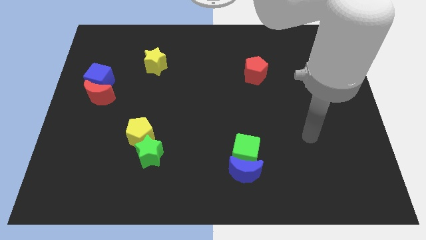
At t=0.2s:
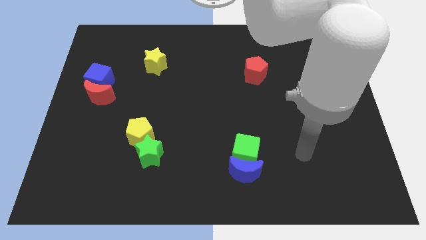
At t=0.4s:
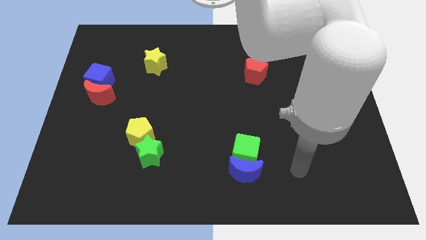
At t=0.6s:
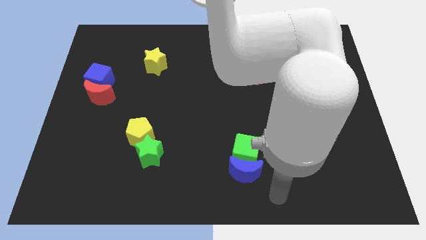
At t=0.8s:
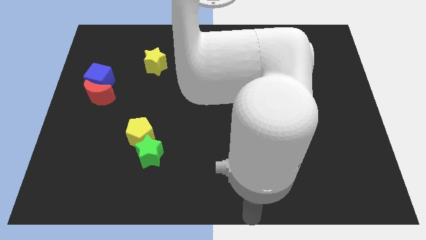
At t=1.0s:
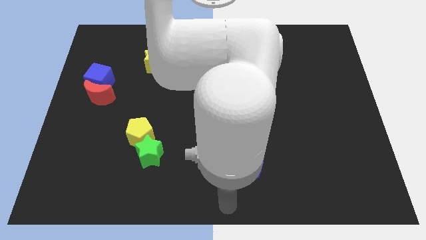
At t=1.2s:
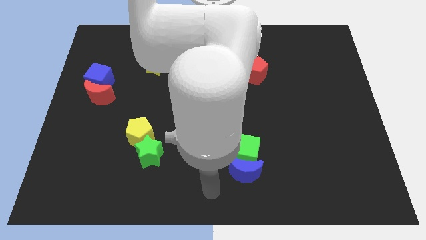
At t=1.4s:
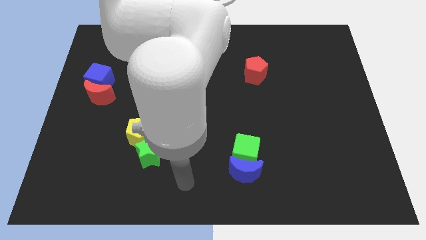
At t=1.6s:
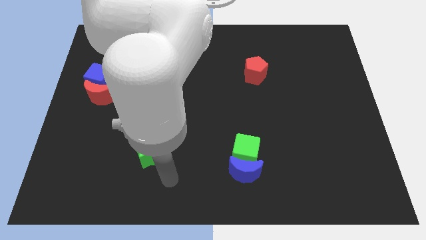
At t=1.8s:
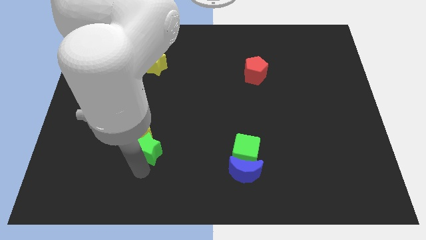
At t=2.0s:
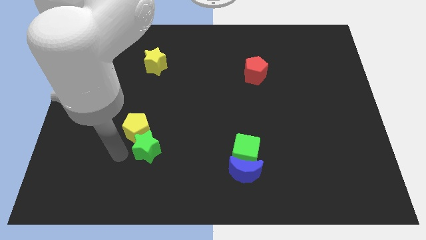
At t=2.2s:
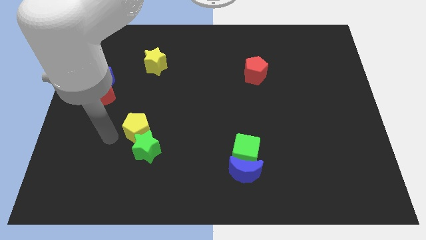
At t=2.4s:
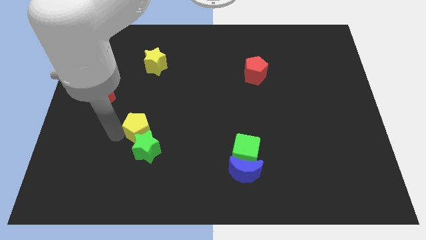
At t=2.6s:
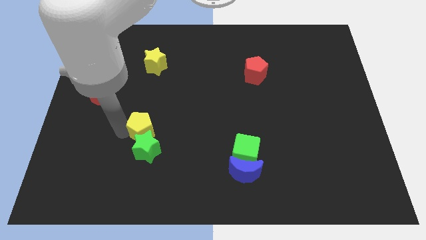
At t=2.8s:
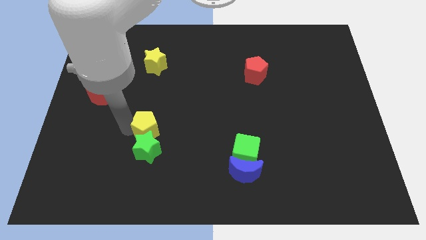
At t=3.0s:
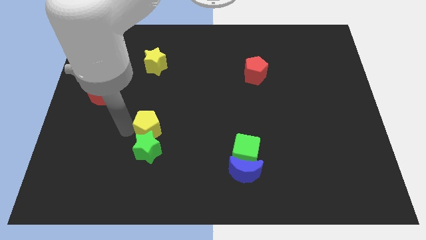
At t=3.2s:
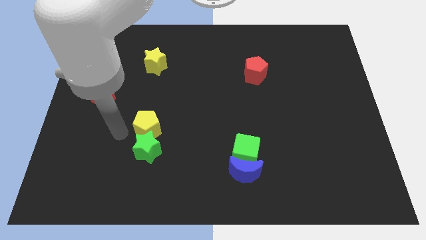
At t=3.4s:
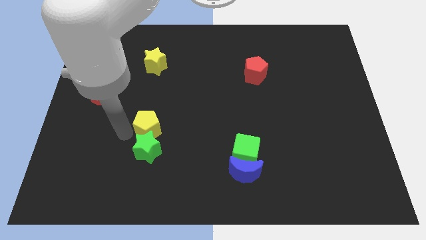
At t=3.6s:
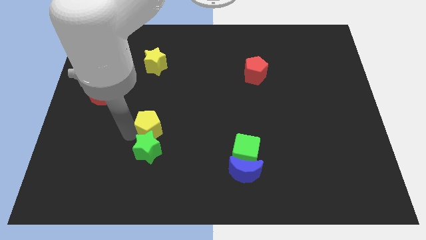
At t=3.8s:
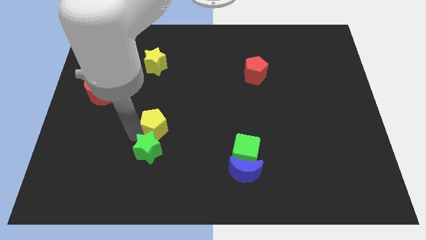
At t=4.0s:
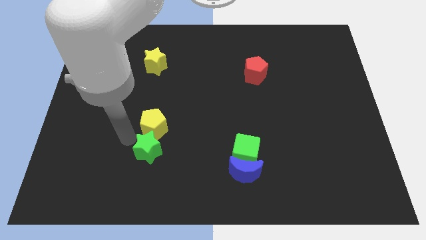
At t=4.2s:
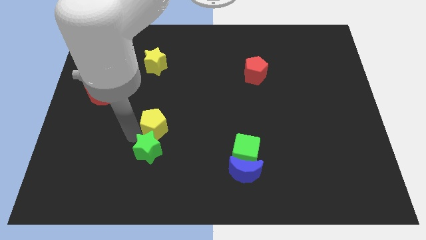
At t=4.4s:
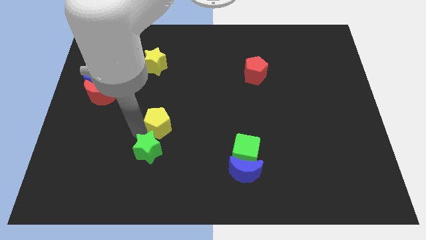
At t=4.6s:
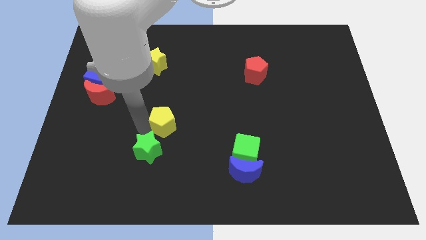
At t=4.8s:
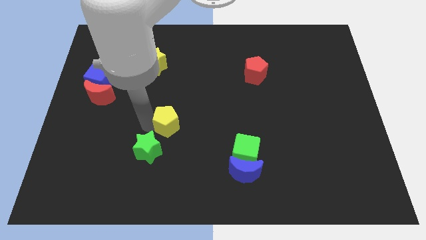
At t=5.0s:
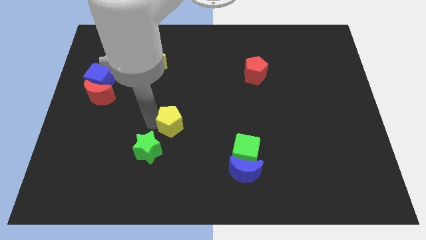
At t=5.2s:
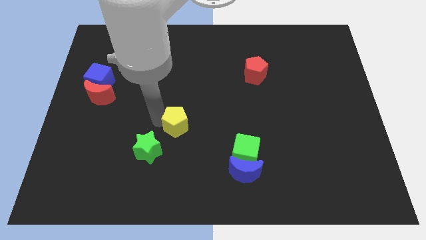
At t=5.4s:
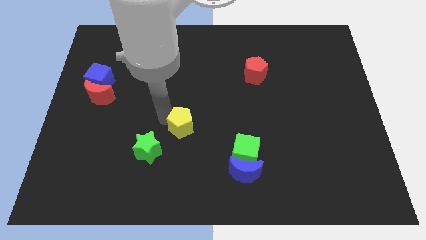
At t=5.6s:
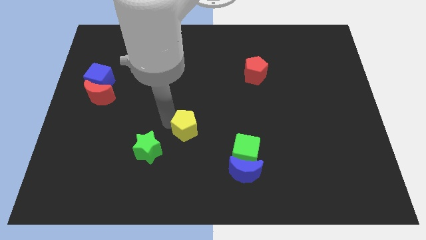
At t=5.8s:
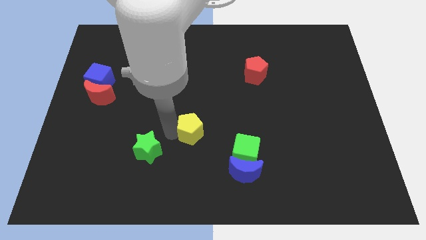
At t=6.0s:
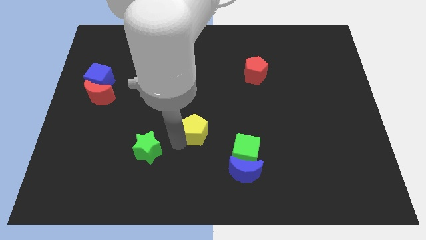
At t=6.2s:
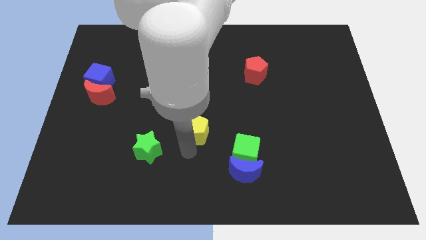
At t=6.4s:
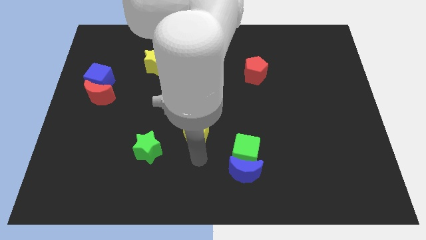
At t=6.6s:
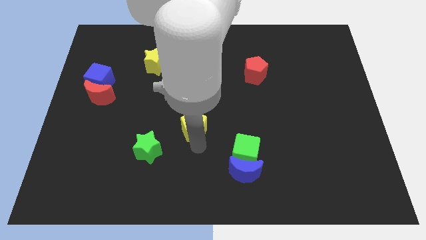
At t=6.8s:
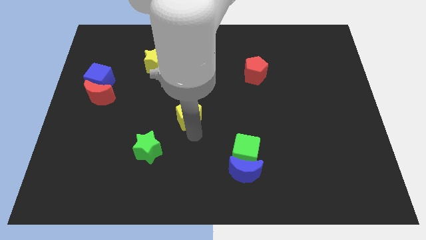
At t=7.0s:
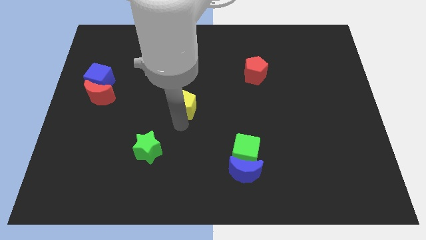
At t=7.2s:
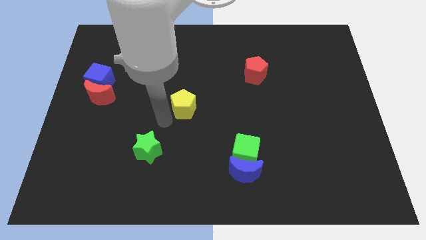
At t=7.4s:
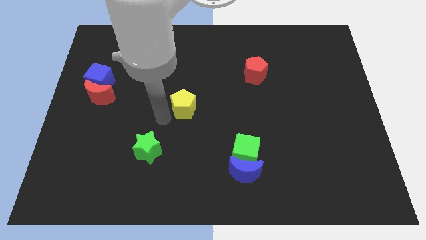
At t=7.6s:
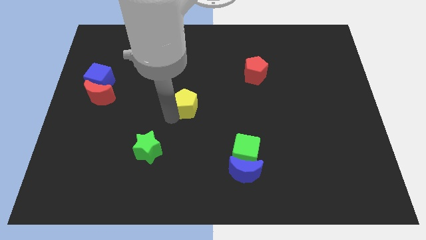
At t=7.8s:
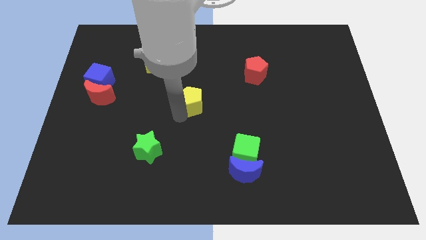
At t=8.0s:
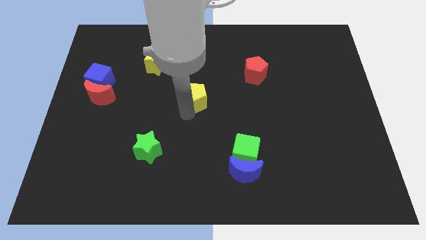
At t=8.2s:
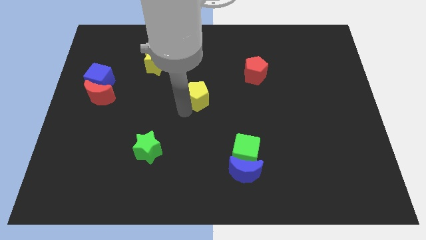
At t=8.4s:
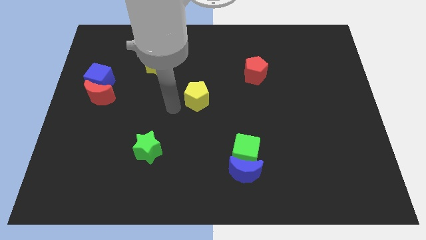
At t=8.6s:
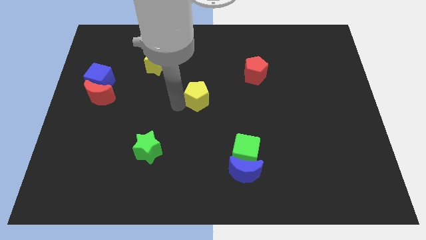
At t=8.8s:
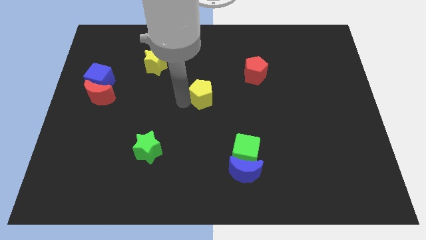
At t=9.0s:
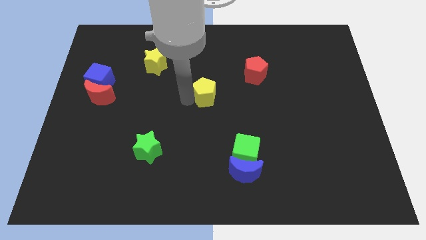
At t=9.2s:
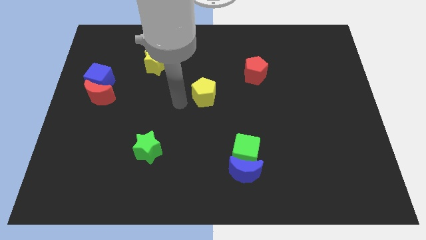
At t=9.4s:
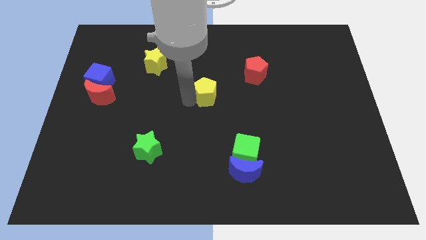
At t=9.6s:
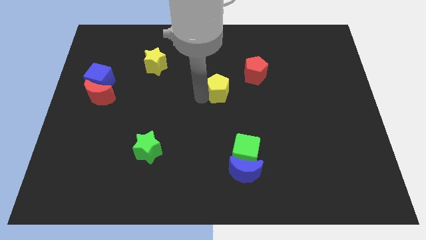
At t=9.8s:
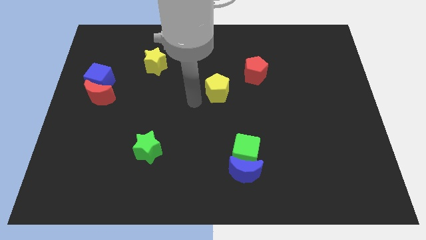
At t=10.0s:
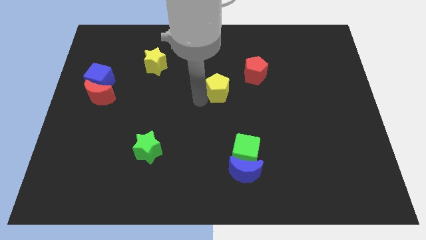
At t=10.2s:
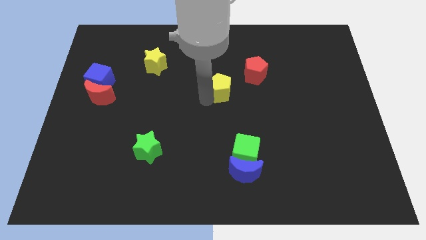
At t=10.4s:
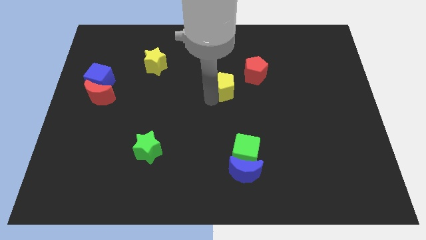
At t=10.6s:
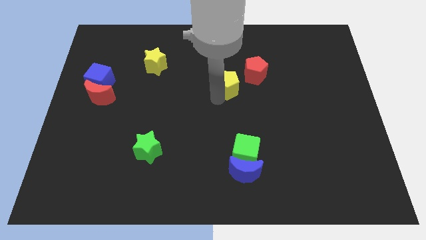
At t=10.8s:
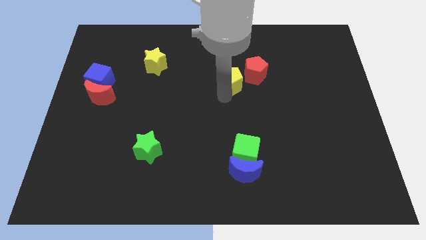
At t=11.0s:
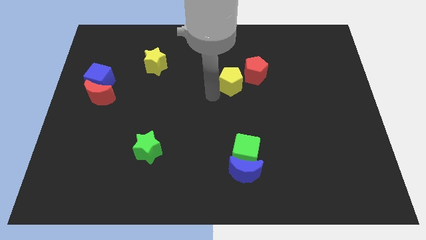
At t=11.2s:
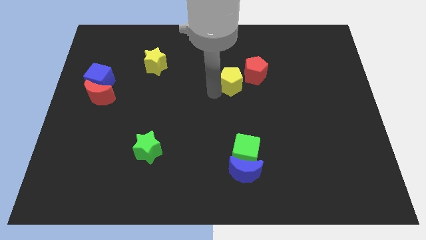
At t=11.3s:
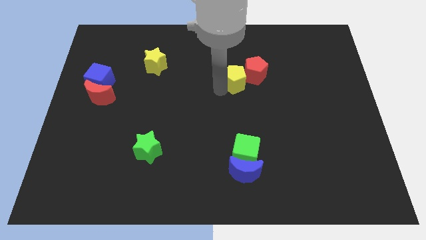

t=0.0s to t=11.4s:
slide the yellow pentagon next to the red pentagon

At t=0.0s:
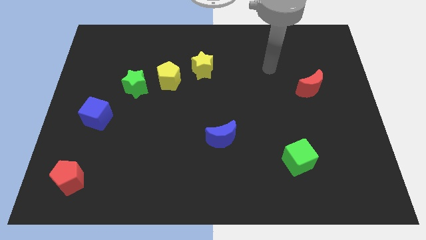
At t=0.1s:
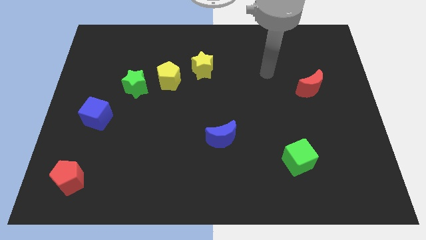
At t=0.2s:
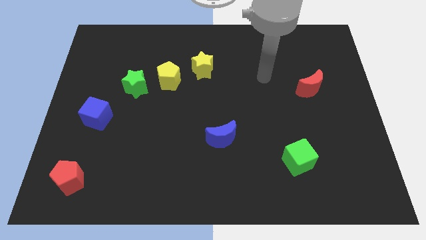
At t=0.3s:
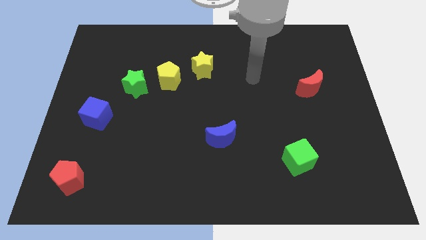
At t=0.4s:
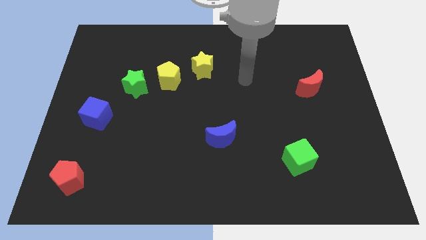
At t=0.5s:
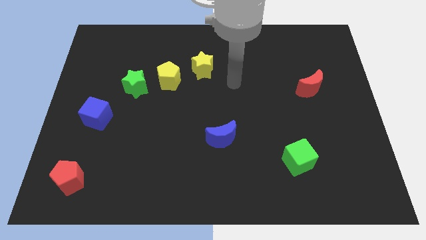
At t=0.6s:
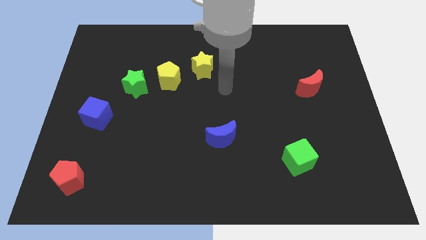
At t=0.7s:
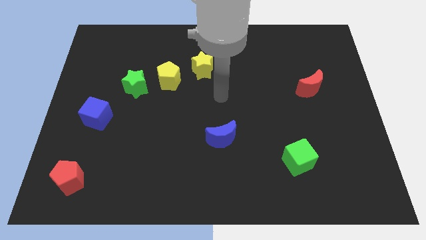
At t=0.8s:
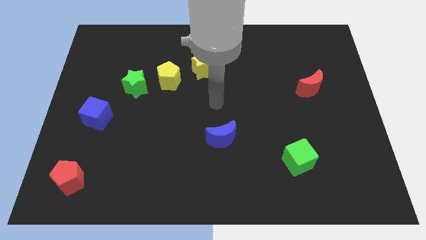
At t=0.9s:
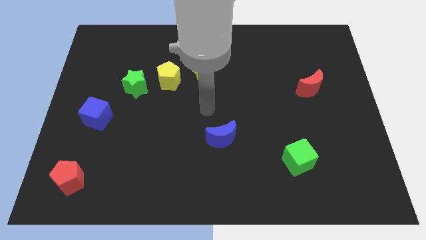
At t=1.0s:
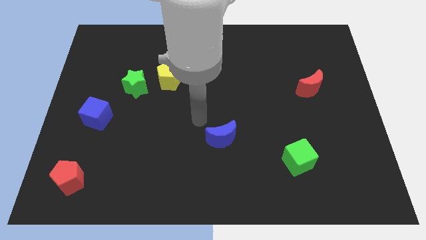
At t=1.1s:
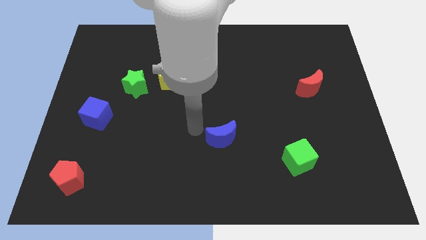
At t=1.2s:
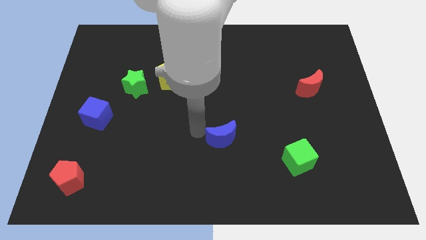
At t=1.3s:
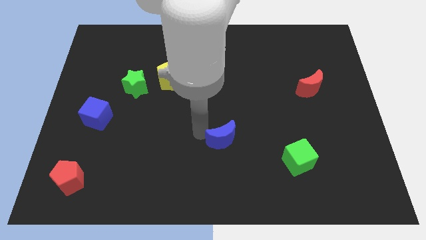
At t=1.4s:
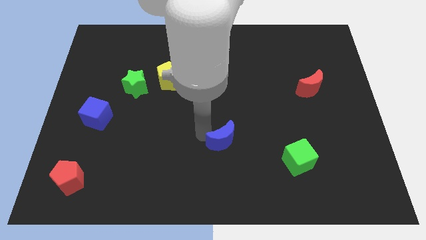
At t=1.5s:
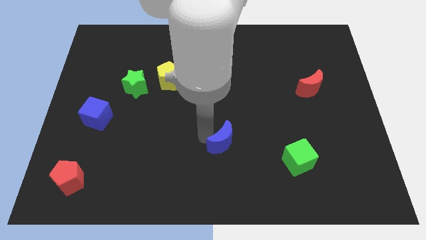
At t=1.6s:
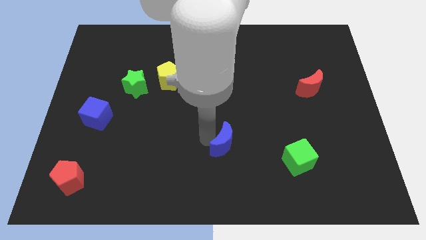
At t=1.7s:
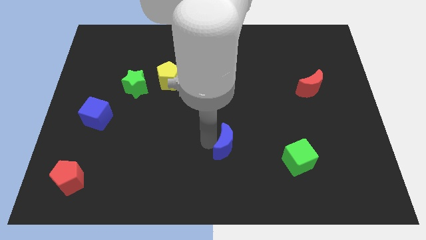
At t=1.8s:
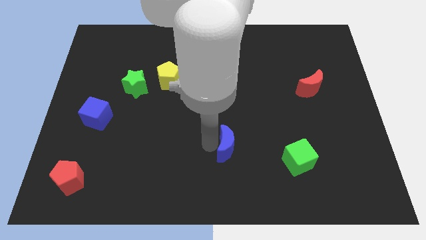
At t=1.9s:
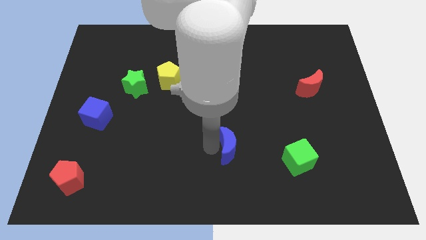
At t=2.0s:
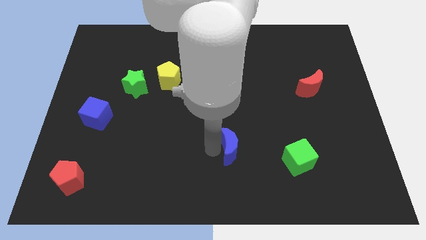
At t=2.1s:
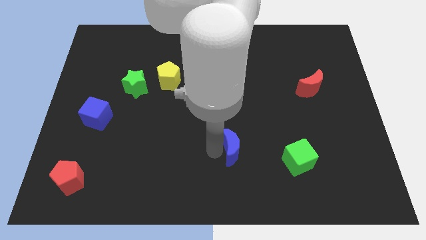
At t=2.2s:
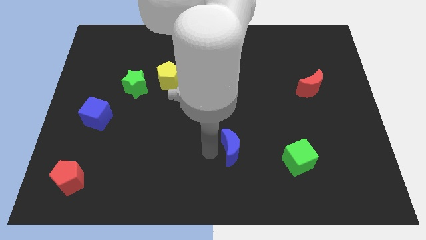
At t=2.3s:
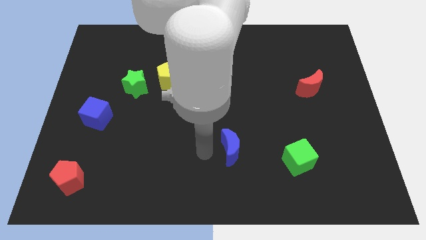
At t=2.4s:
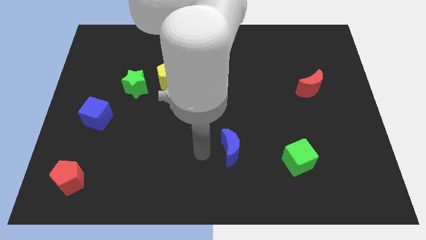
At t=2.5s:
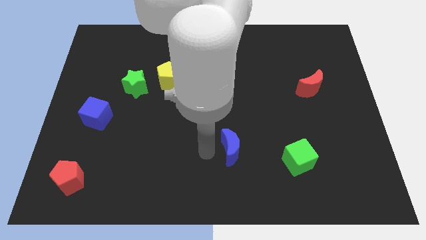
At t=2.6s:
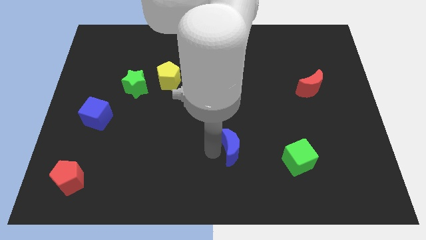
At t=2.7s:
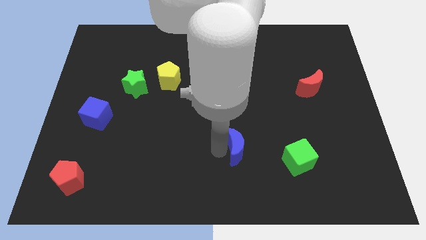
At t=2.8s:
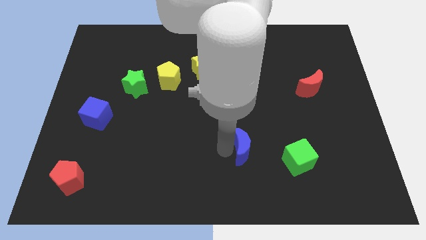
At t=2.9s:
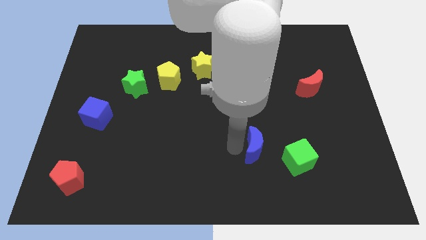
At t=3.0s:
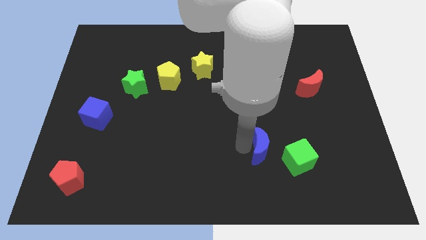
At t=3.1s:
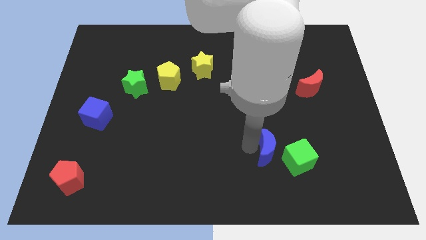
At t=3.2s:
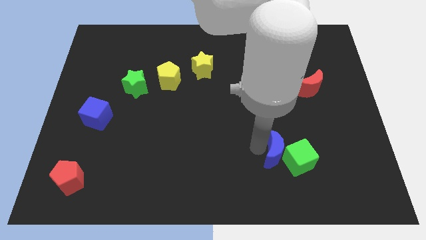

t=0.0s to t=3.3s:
push the blue moon next to the green cube
